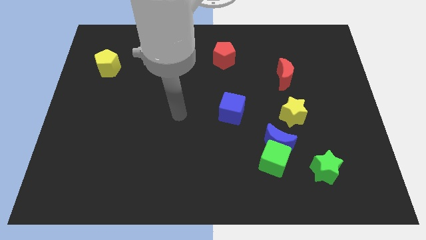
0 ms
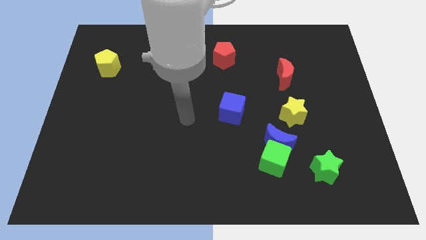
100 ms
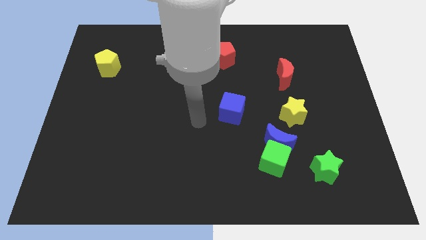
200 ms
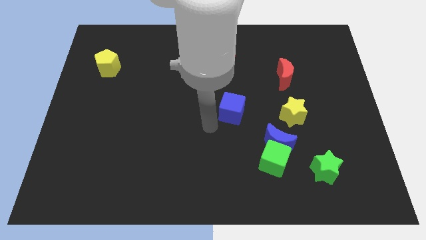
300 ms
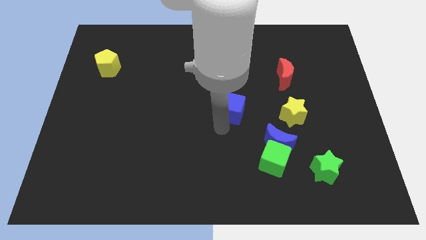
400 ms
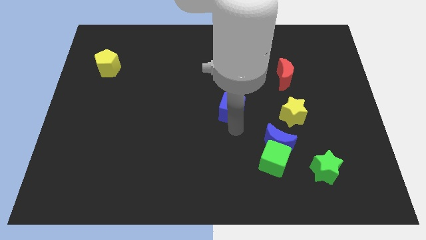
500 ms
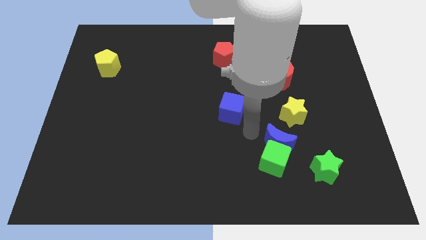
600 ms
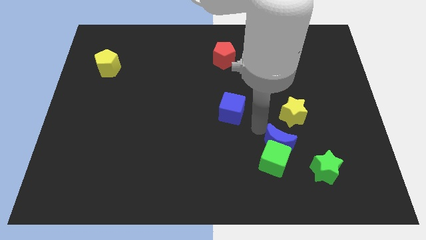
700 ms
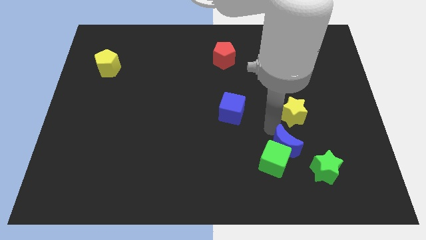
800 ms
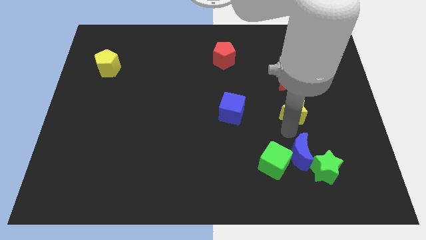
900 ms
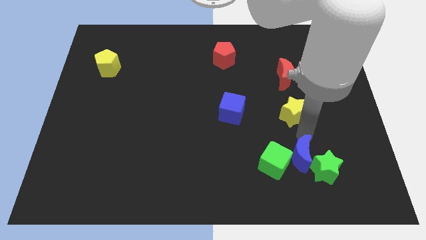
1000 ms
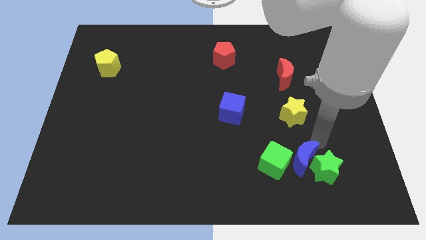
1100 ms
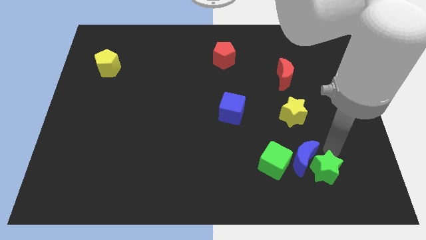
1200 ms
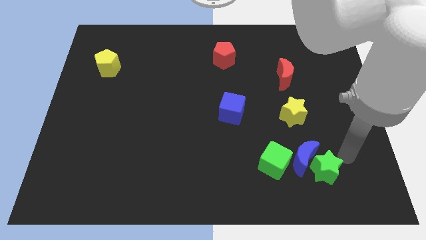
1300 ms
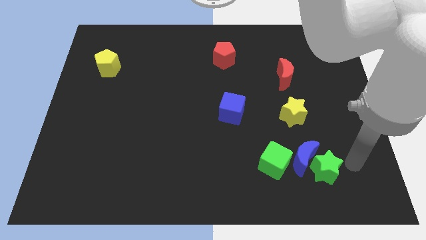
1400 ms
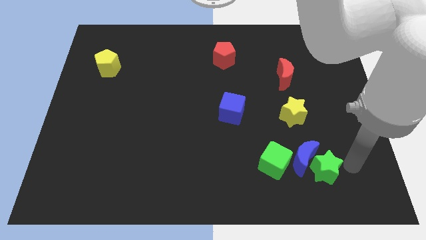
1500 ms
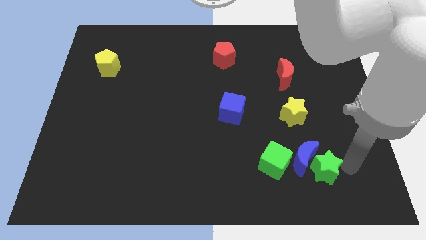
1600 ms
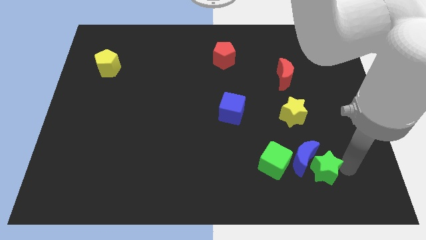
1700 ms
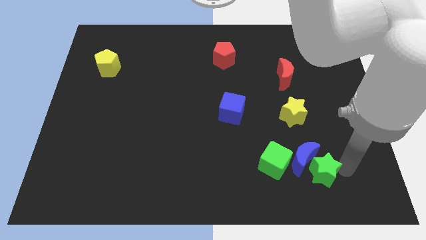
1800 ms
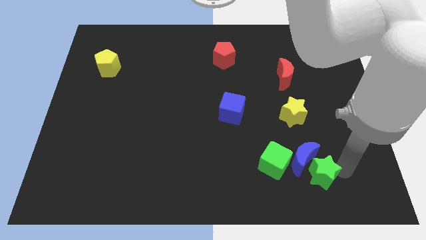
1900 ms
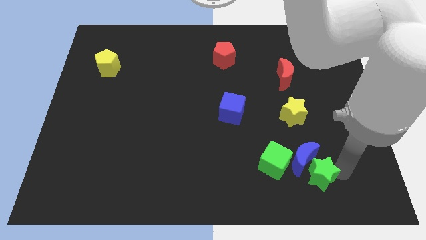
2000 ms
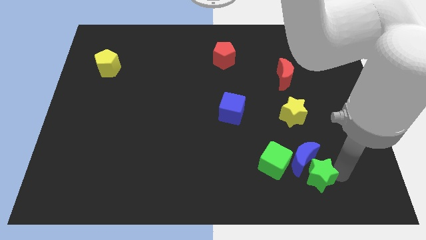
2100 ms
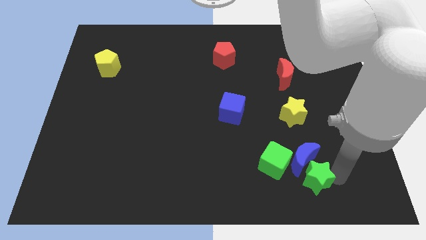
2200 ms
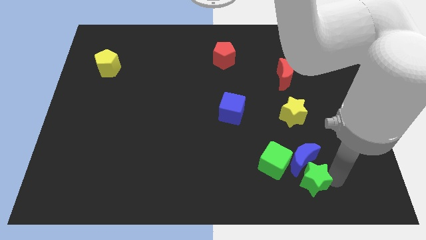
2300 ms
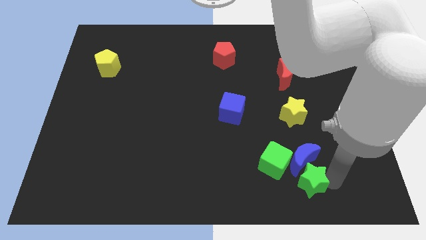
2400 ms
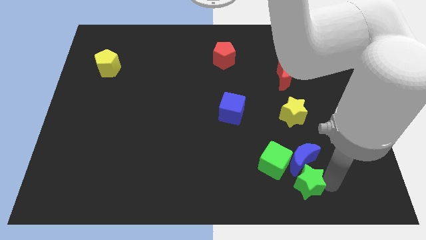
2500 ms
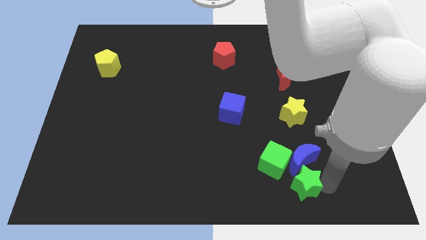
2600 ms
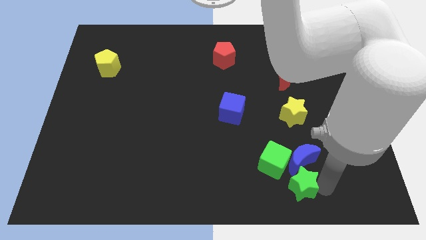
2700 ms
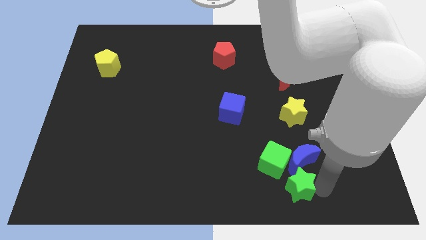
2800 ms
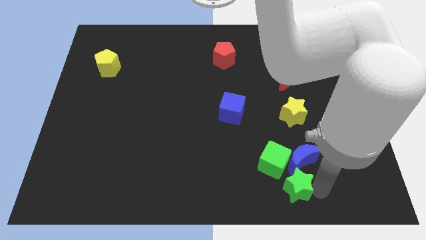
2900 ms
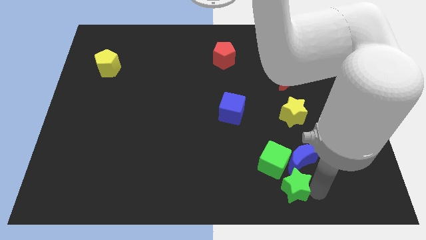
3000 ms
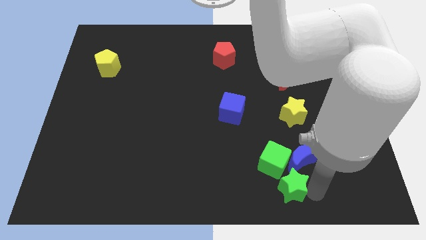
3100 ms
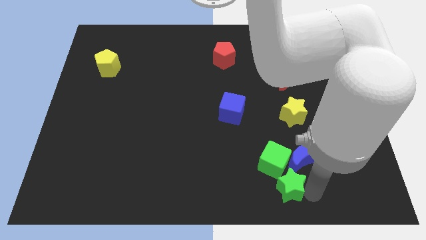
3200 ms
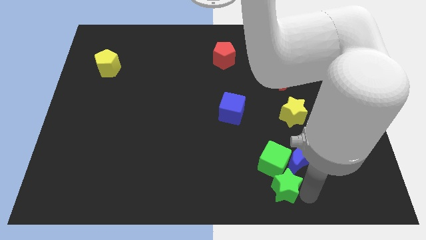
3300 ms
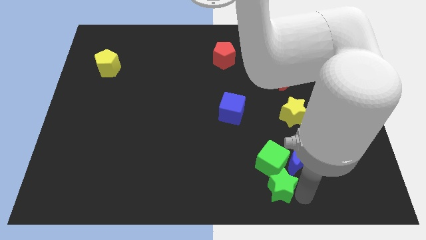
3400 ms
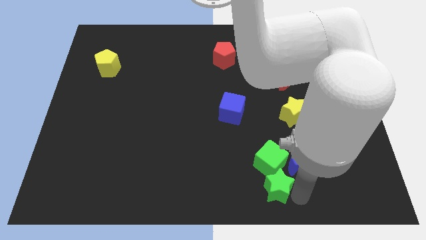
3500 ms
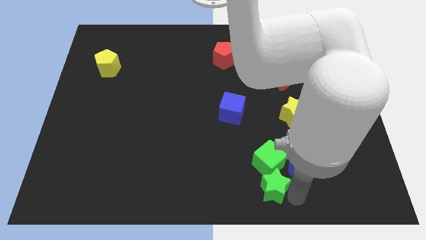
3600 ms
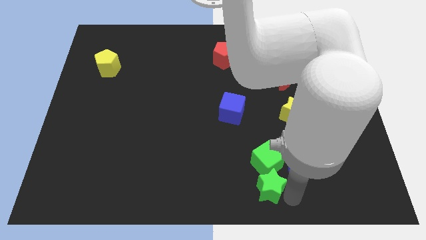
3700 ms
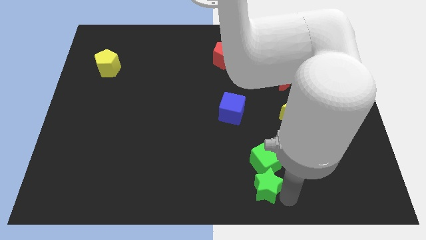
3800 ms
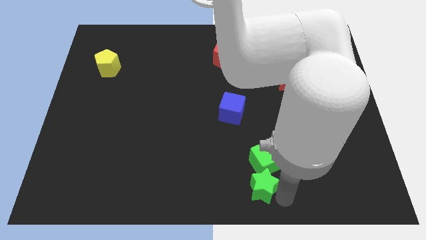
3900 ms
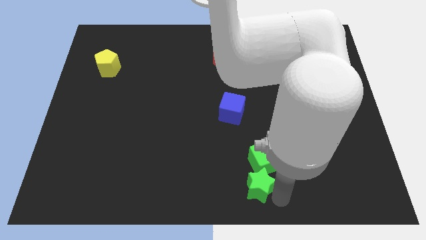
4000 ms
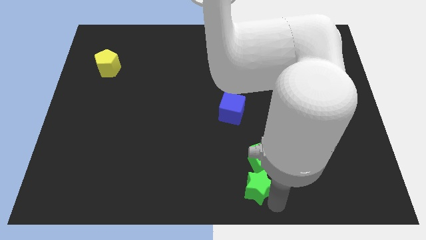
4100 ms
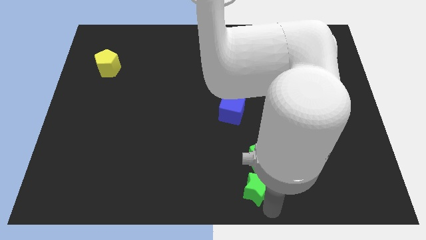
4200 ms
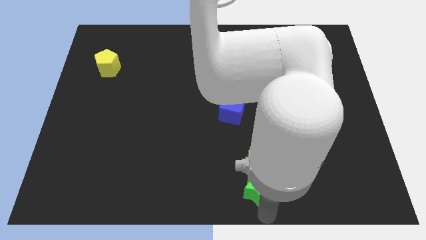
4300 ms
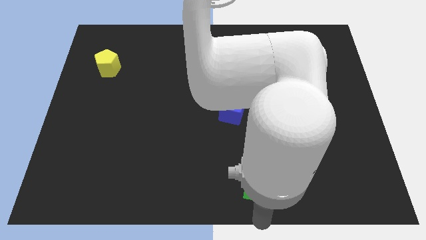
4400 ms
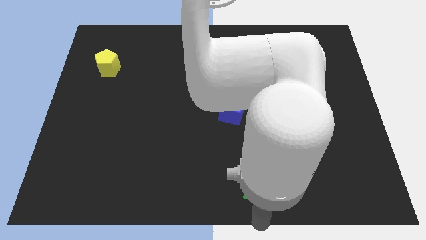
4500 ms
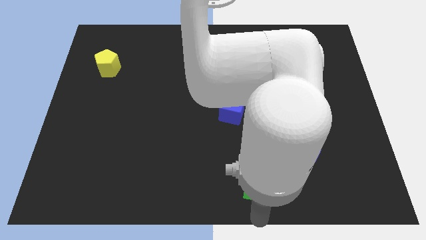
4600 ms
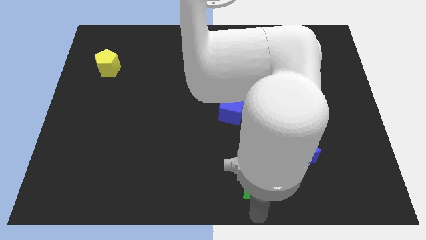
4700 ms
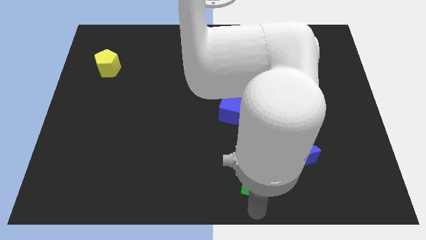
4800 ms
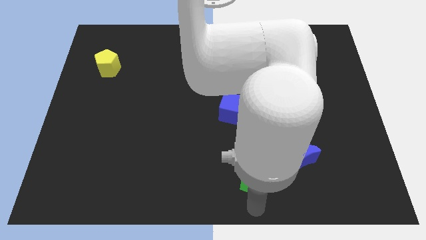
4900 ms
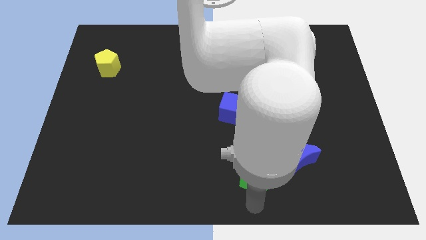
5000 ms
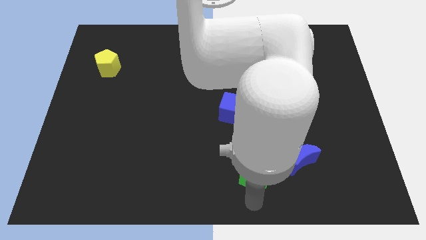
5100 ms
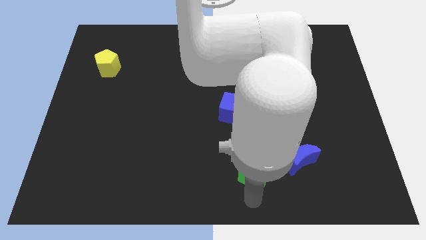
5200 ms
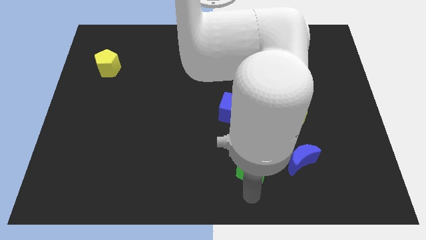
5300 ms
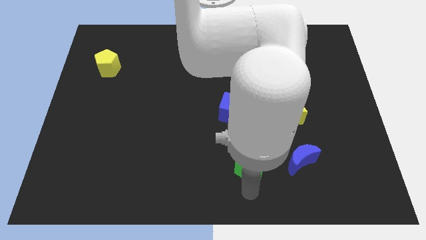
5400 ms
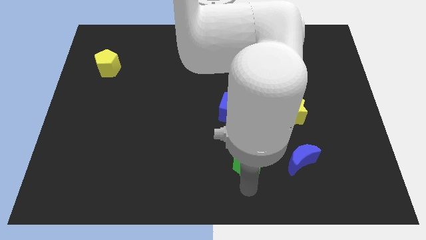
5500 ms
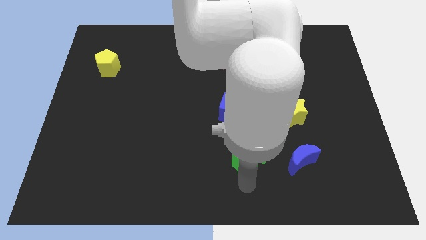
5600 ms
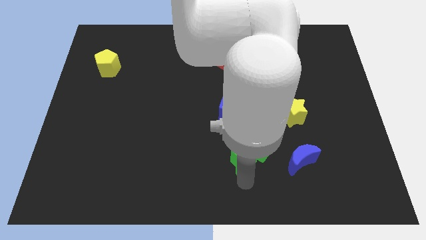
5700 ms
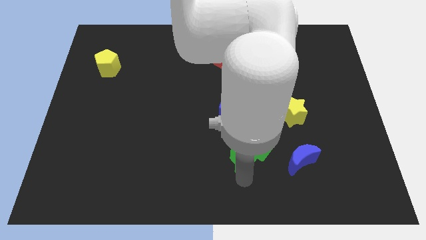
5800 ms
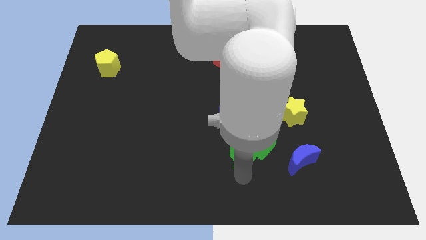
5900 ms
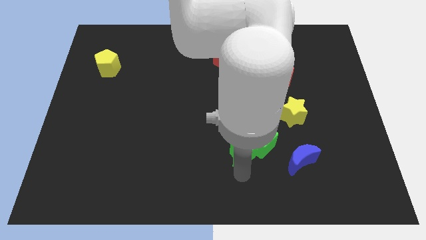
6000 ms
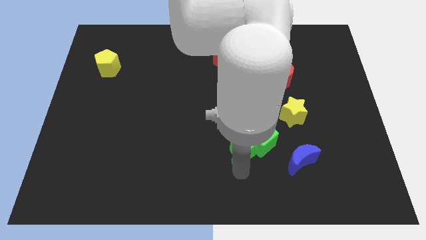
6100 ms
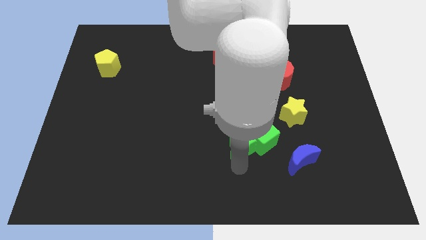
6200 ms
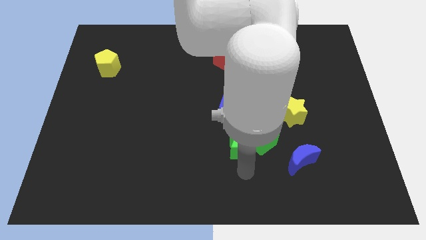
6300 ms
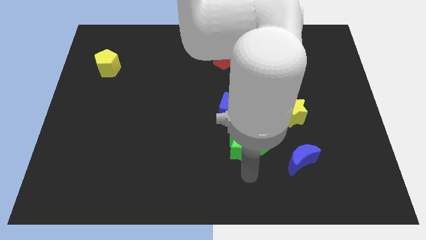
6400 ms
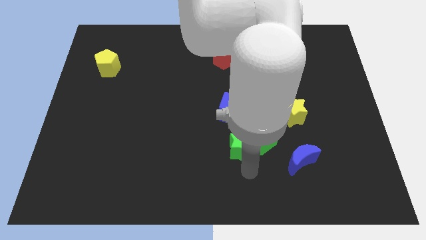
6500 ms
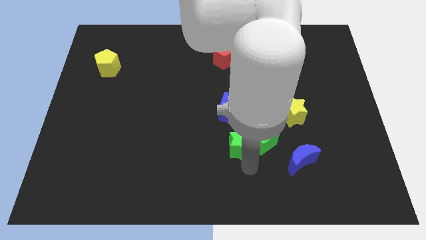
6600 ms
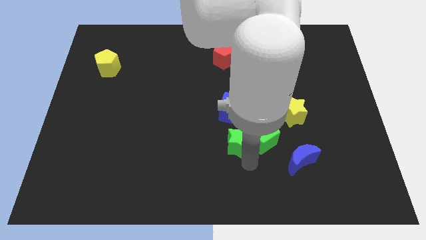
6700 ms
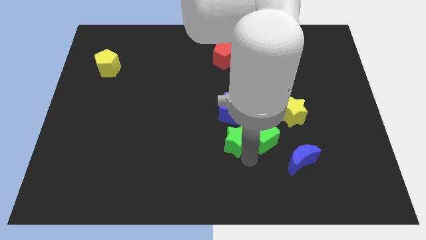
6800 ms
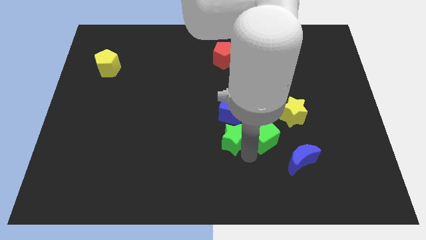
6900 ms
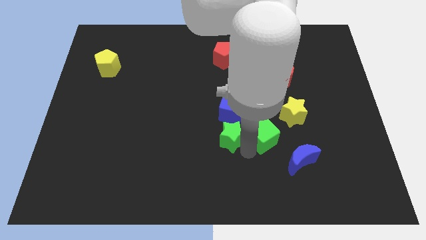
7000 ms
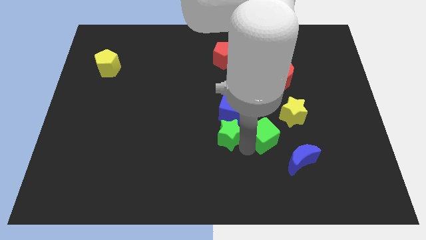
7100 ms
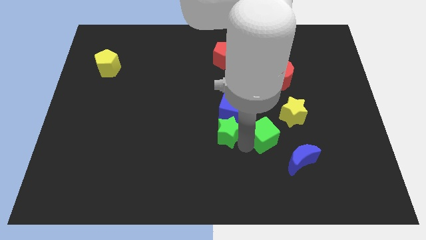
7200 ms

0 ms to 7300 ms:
slide the green star to the blue cube
